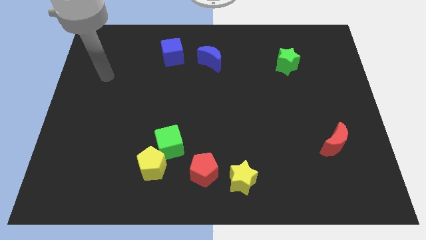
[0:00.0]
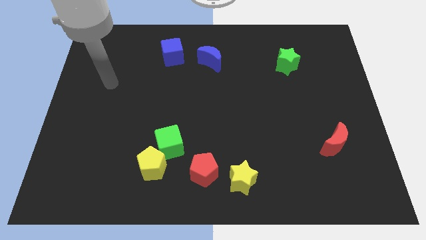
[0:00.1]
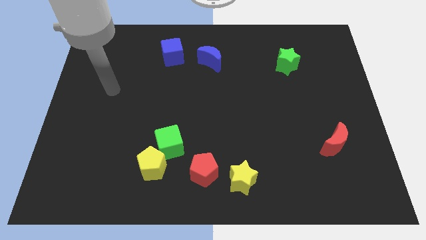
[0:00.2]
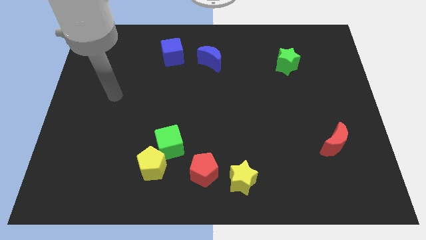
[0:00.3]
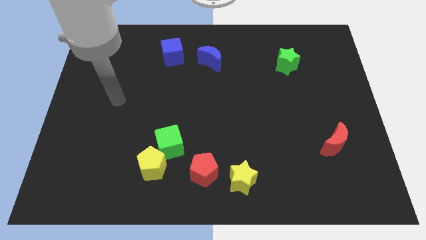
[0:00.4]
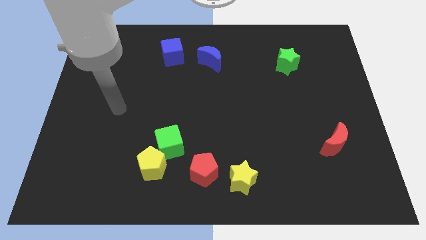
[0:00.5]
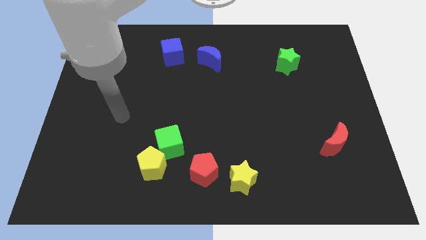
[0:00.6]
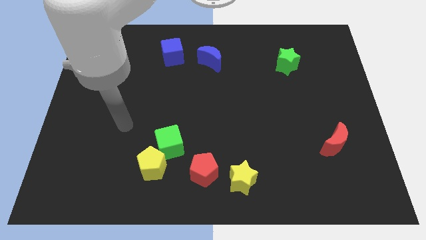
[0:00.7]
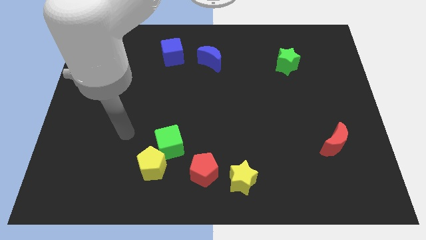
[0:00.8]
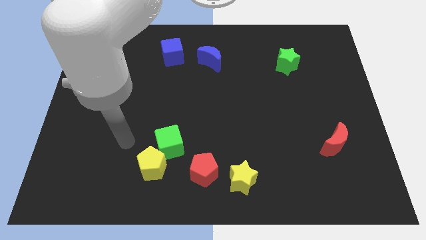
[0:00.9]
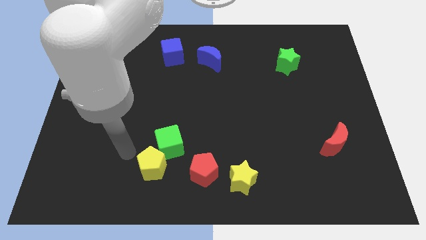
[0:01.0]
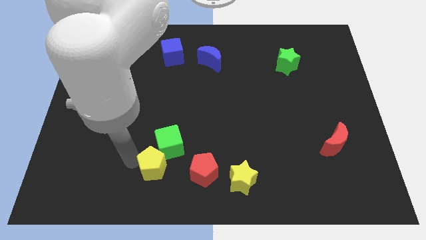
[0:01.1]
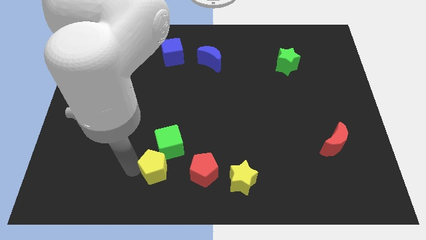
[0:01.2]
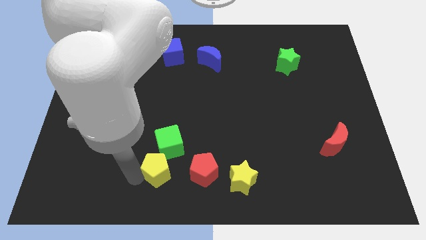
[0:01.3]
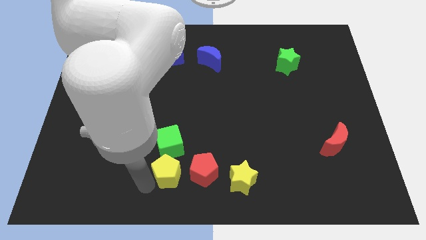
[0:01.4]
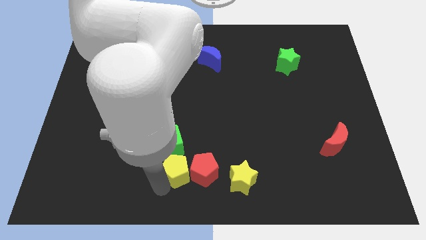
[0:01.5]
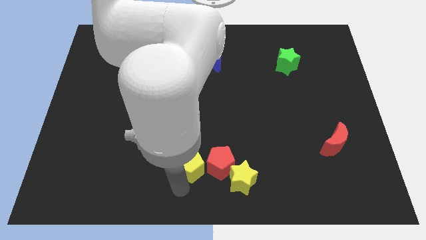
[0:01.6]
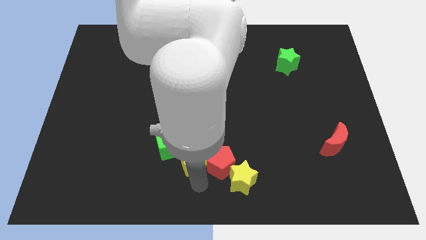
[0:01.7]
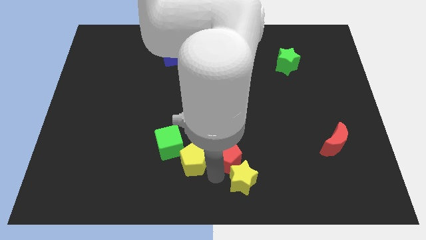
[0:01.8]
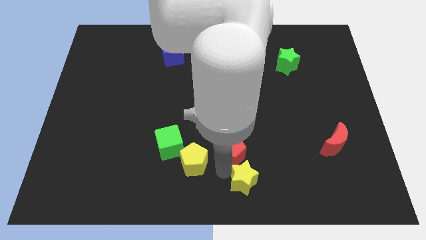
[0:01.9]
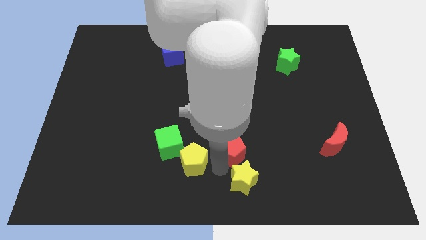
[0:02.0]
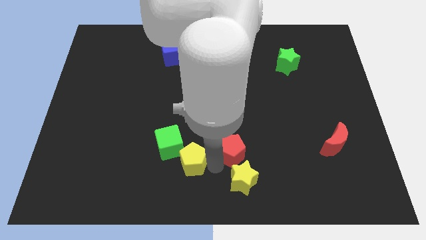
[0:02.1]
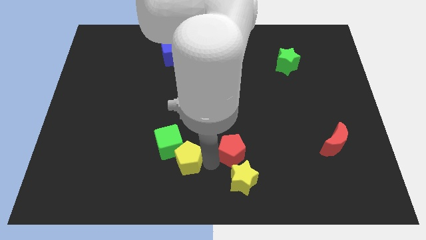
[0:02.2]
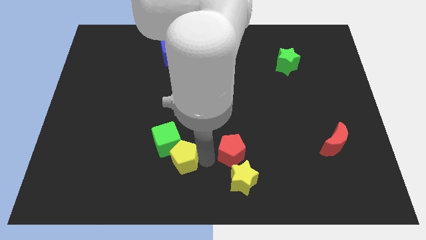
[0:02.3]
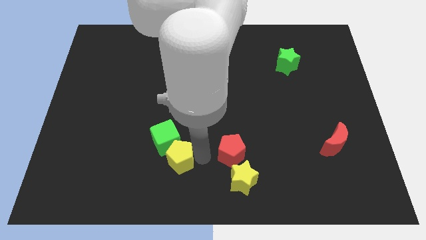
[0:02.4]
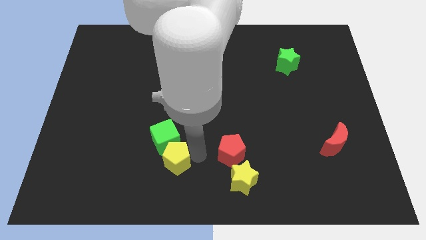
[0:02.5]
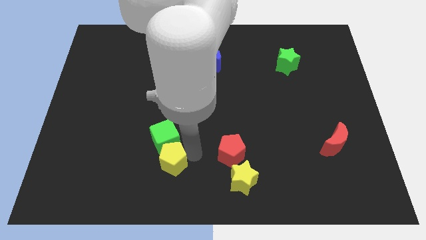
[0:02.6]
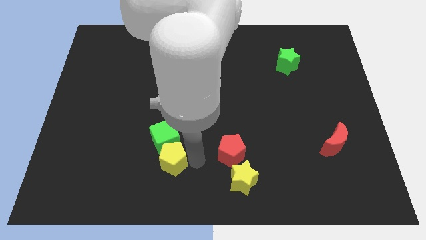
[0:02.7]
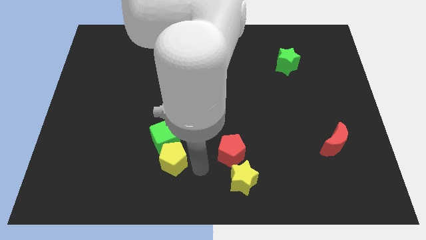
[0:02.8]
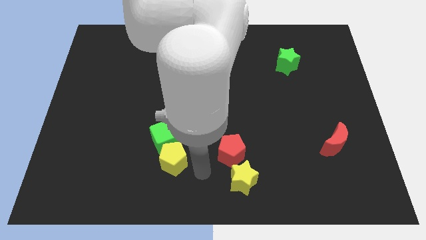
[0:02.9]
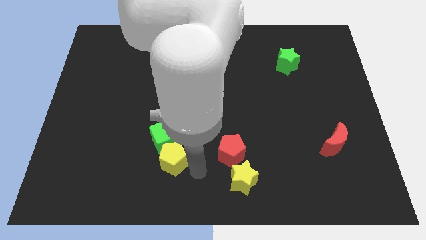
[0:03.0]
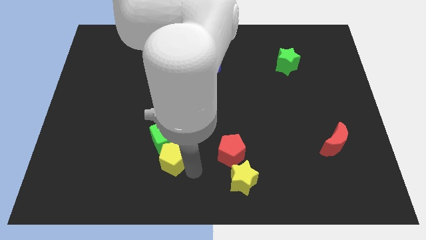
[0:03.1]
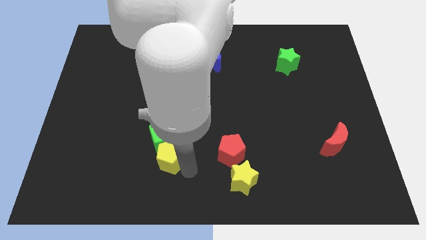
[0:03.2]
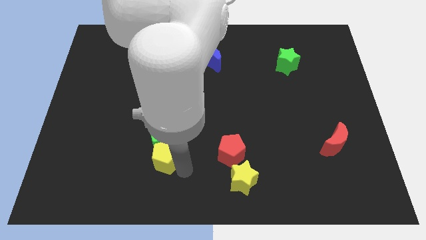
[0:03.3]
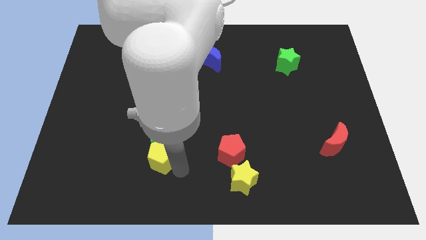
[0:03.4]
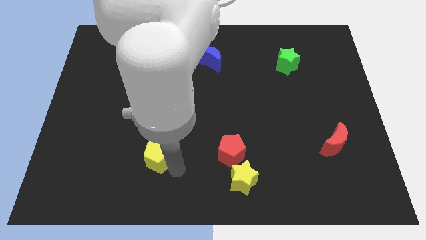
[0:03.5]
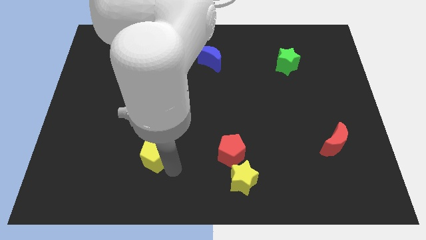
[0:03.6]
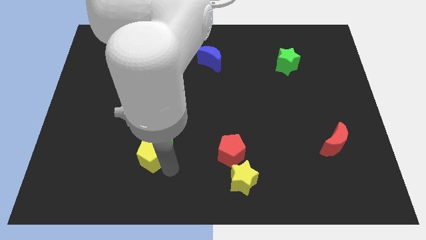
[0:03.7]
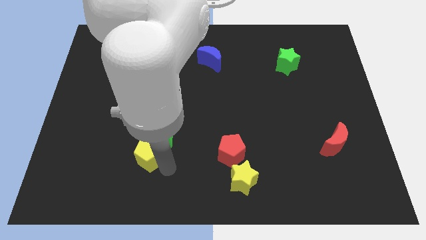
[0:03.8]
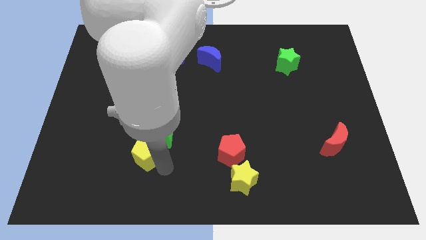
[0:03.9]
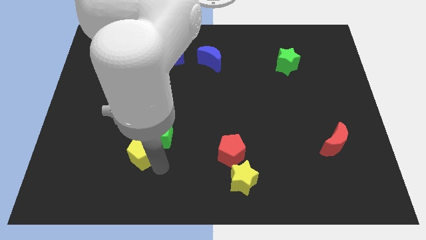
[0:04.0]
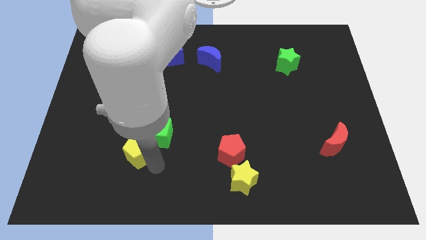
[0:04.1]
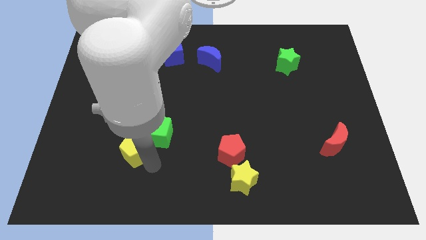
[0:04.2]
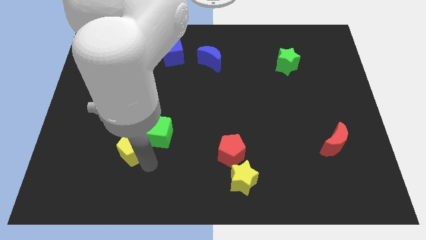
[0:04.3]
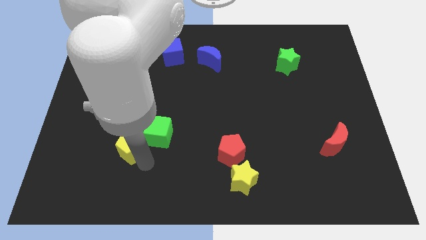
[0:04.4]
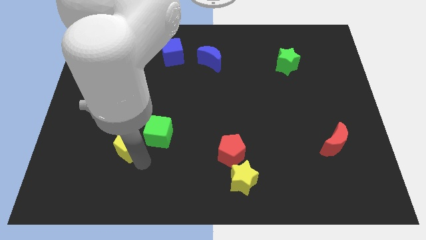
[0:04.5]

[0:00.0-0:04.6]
slide the yellow pentagon up and to the left slightly

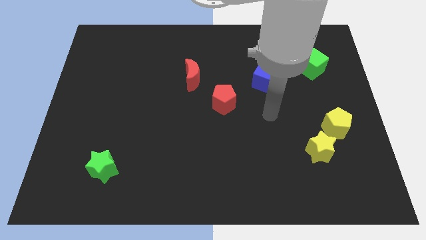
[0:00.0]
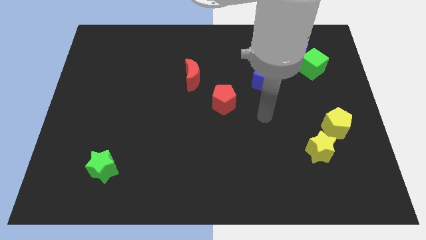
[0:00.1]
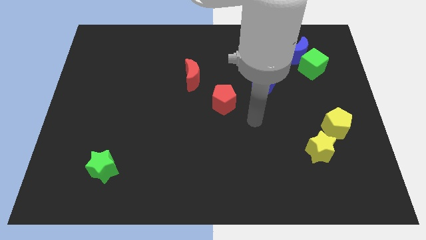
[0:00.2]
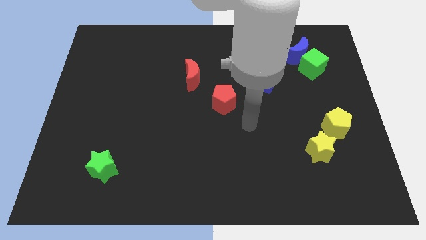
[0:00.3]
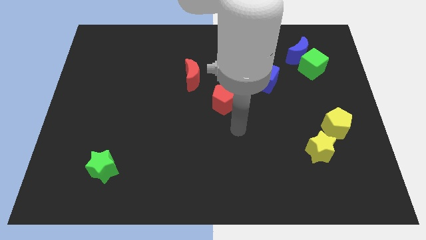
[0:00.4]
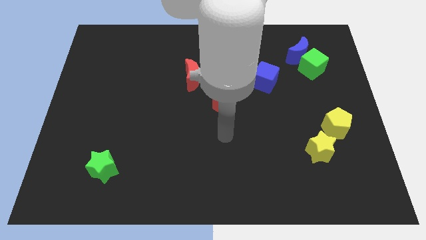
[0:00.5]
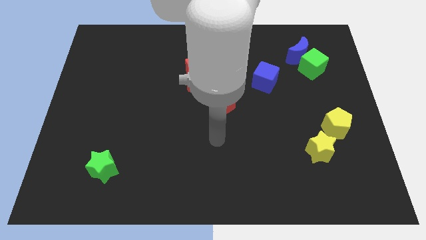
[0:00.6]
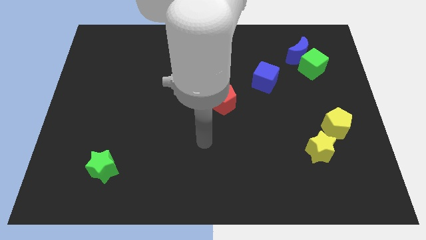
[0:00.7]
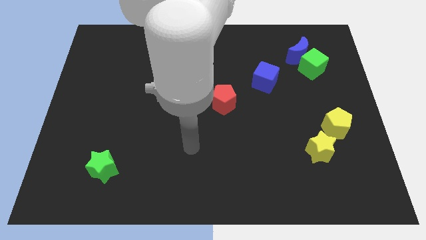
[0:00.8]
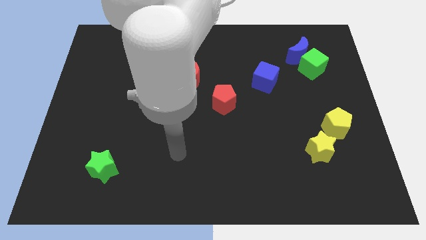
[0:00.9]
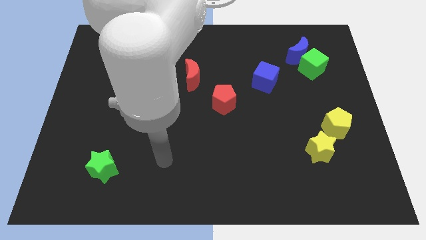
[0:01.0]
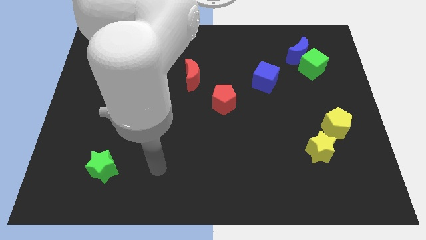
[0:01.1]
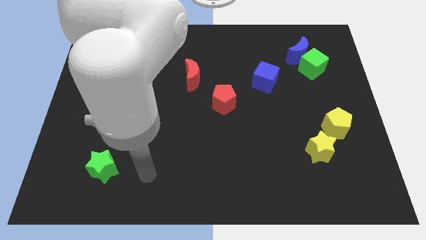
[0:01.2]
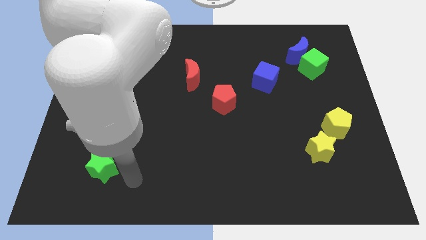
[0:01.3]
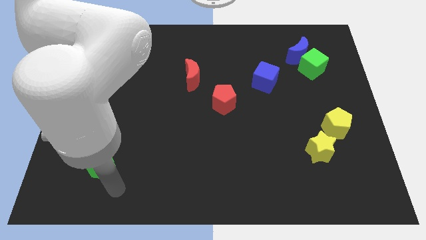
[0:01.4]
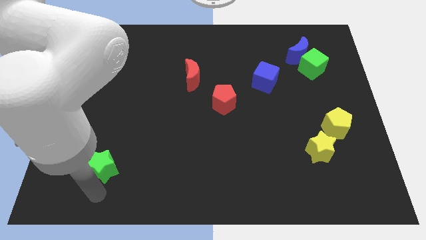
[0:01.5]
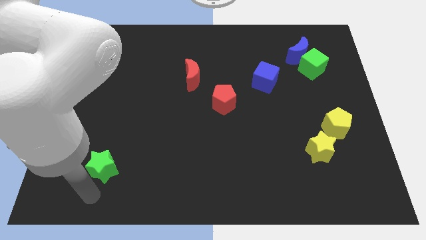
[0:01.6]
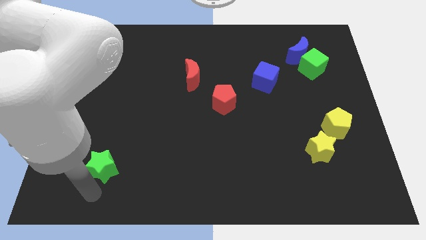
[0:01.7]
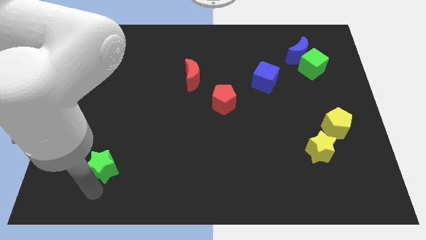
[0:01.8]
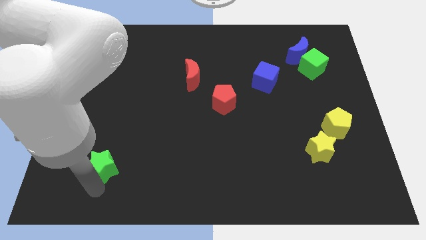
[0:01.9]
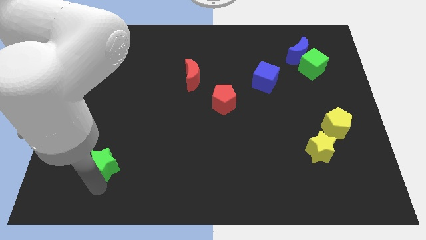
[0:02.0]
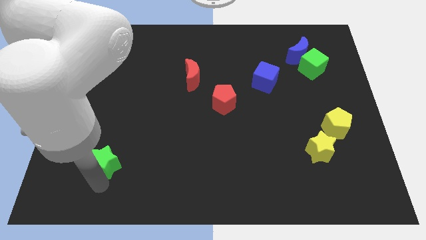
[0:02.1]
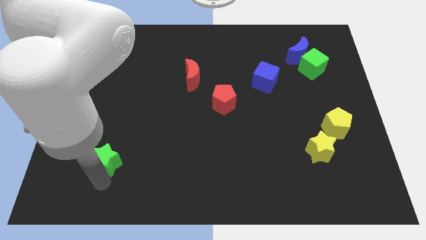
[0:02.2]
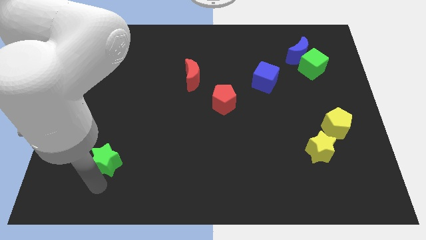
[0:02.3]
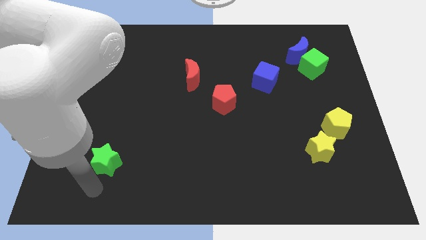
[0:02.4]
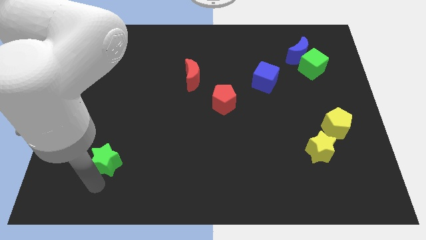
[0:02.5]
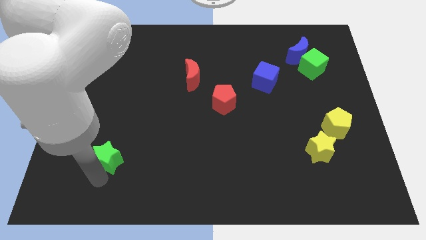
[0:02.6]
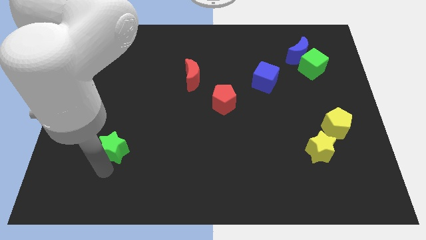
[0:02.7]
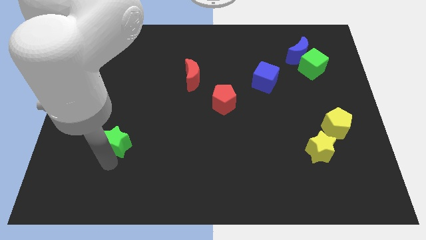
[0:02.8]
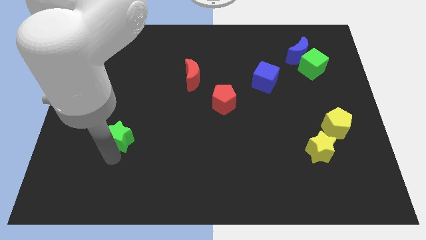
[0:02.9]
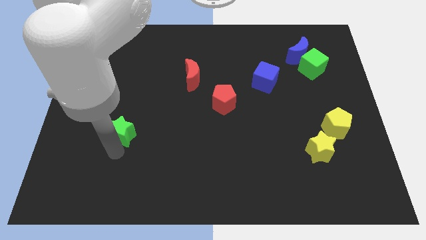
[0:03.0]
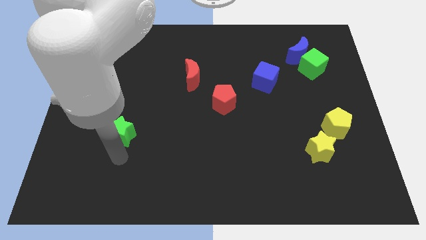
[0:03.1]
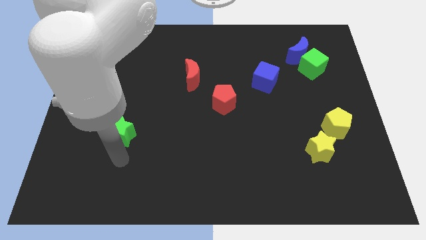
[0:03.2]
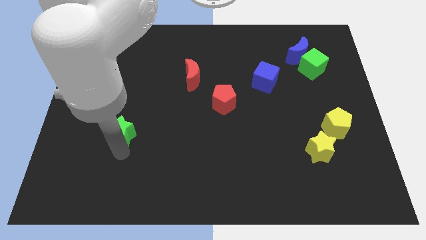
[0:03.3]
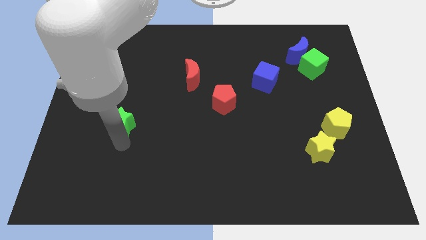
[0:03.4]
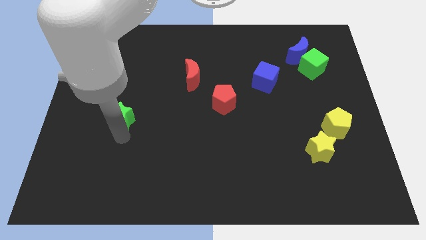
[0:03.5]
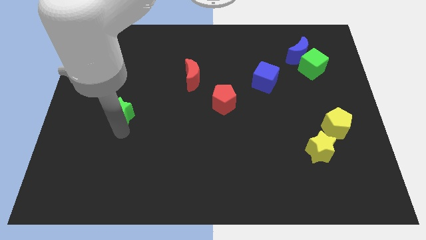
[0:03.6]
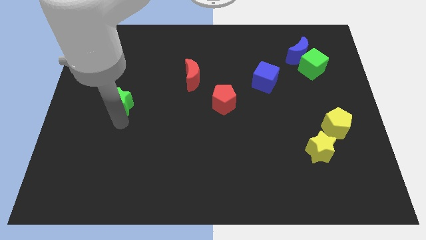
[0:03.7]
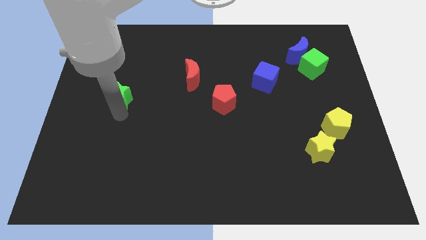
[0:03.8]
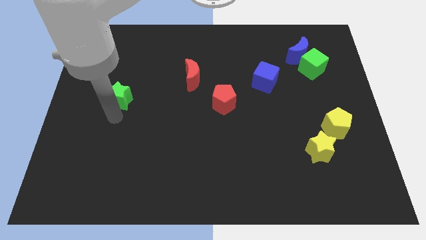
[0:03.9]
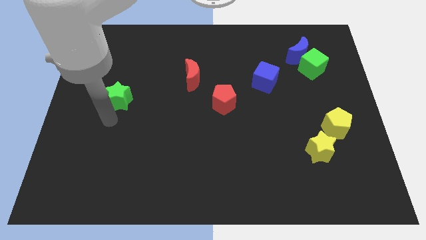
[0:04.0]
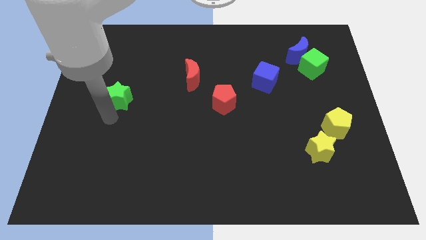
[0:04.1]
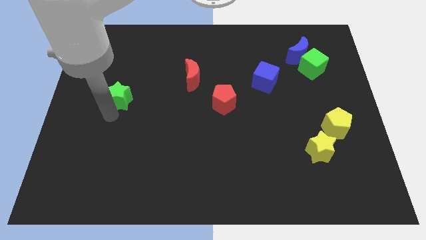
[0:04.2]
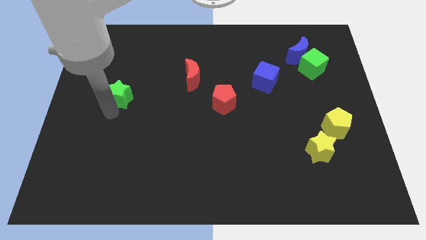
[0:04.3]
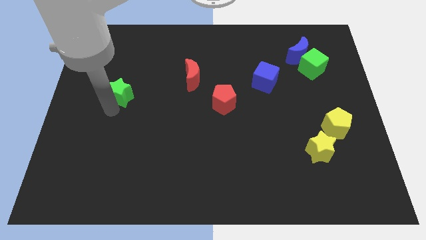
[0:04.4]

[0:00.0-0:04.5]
push the green star upwards
